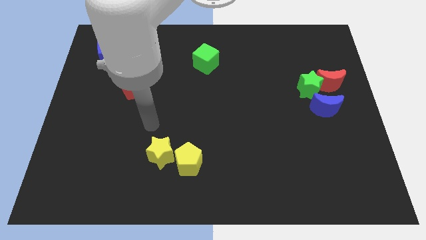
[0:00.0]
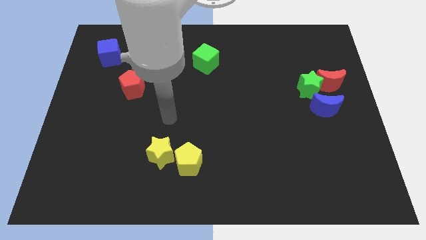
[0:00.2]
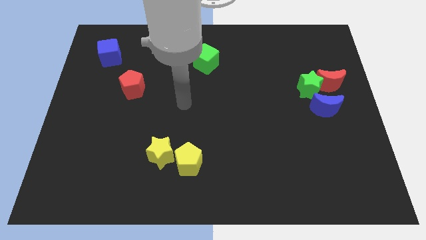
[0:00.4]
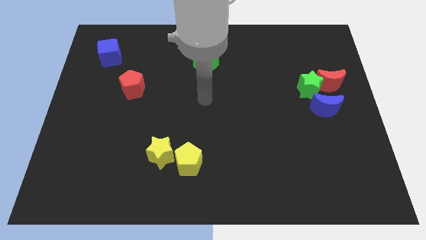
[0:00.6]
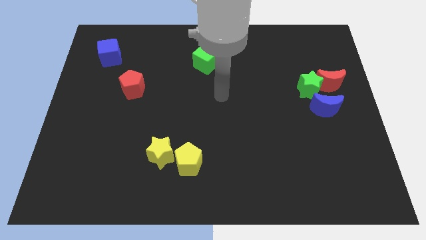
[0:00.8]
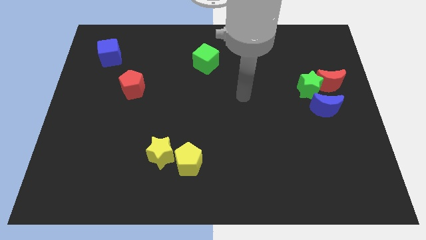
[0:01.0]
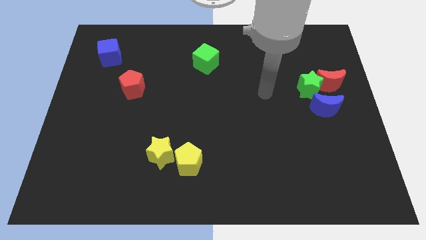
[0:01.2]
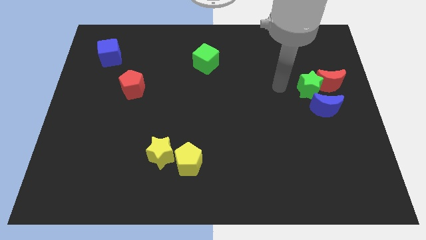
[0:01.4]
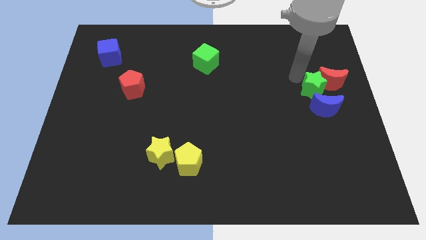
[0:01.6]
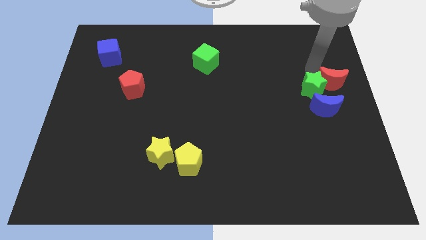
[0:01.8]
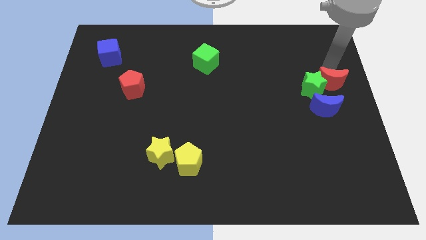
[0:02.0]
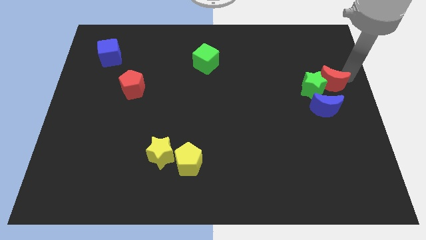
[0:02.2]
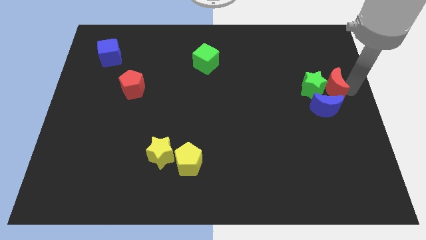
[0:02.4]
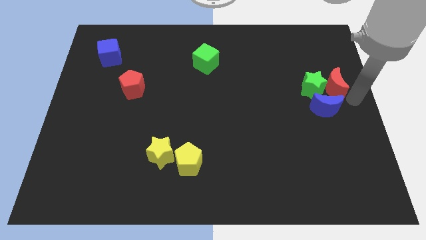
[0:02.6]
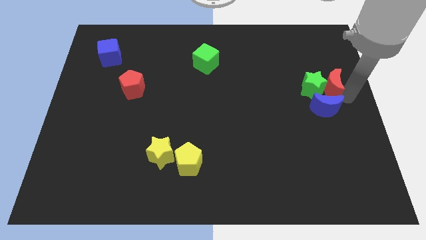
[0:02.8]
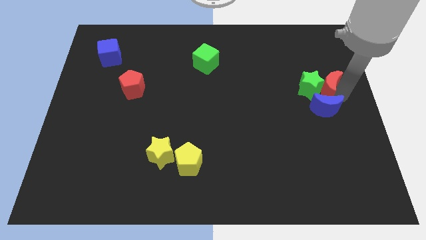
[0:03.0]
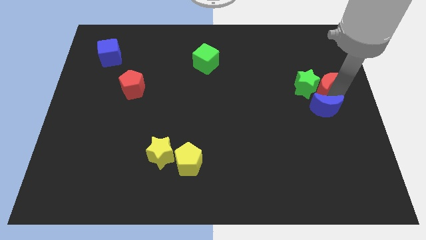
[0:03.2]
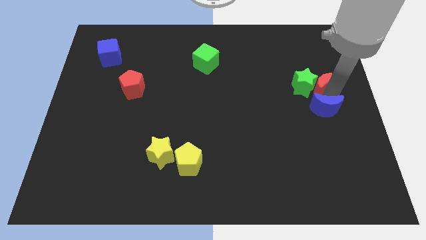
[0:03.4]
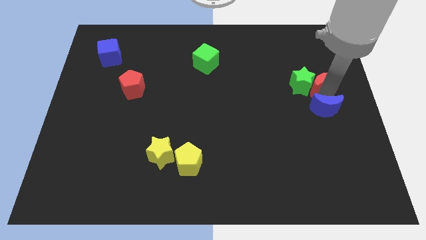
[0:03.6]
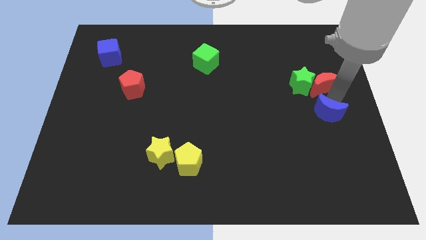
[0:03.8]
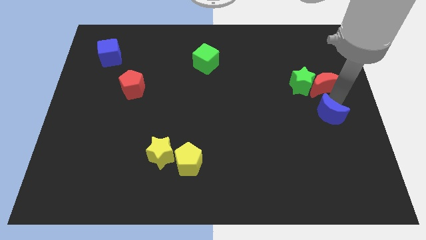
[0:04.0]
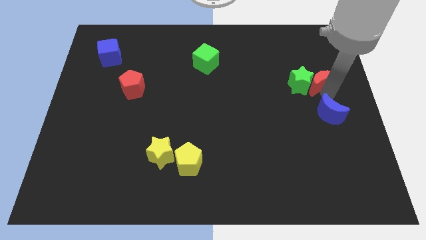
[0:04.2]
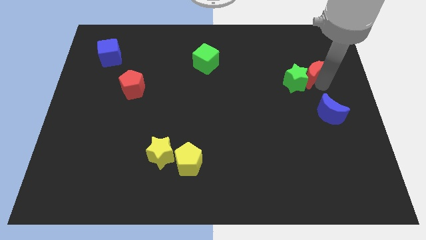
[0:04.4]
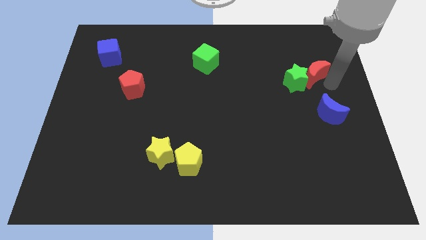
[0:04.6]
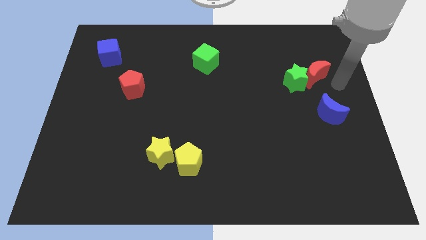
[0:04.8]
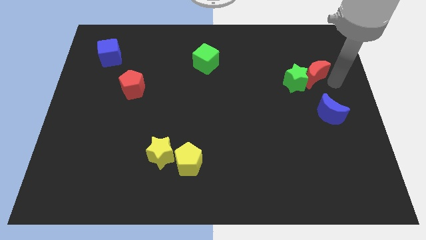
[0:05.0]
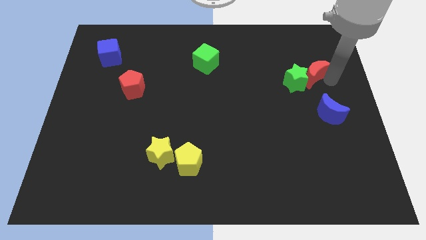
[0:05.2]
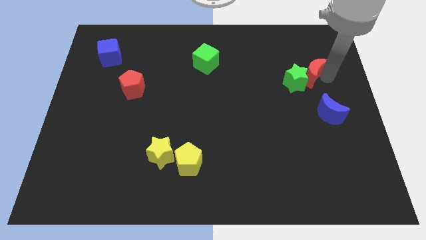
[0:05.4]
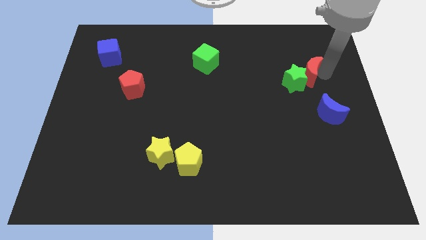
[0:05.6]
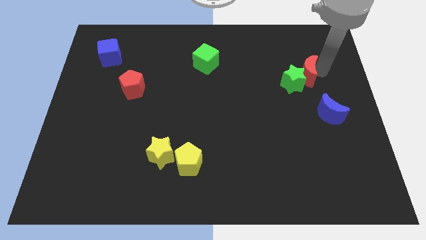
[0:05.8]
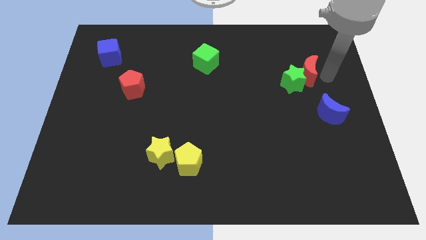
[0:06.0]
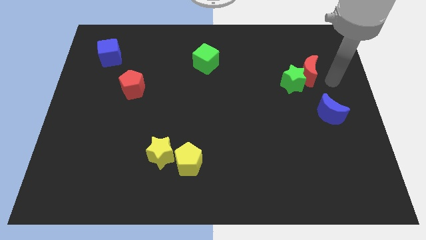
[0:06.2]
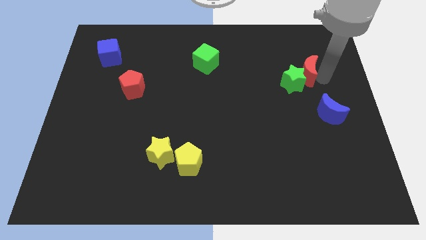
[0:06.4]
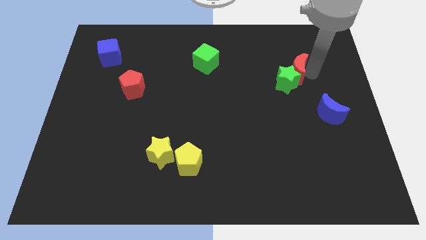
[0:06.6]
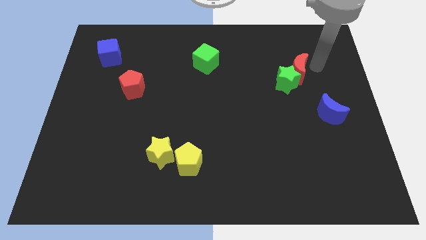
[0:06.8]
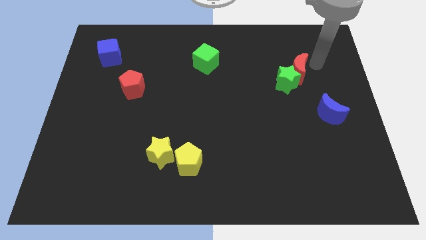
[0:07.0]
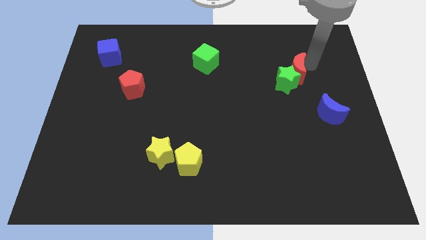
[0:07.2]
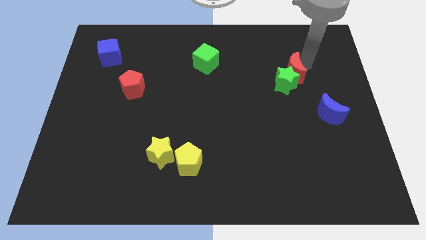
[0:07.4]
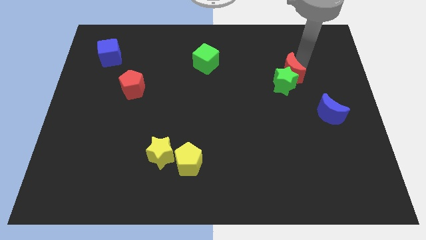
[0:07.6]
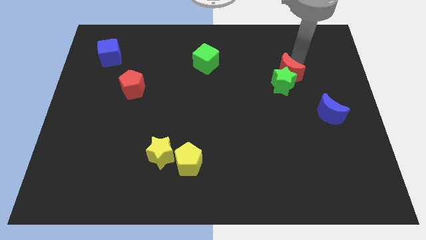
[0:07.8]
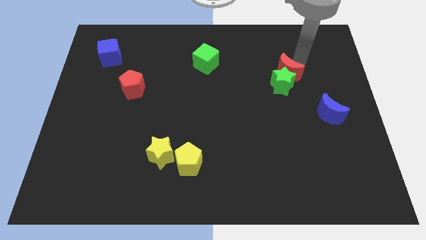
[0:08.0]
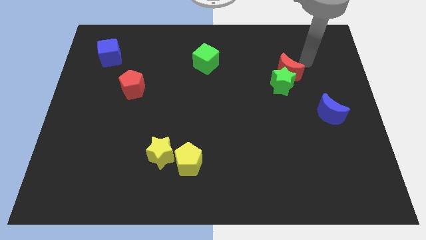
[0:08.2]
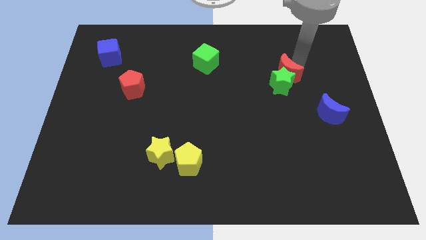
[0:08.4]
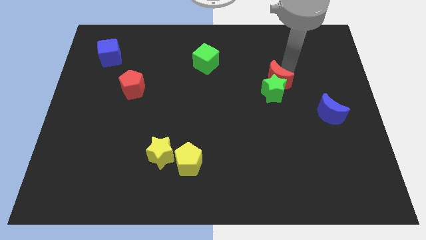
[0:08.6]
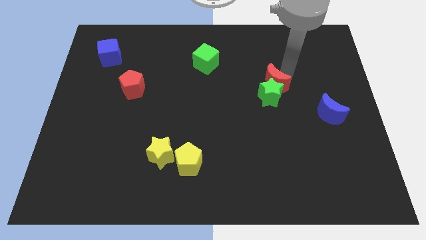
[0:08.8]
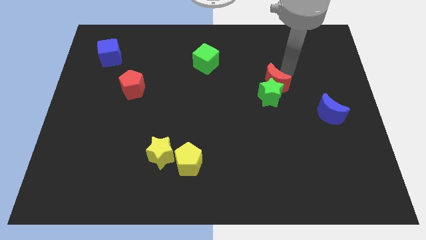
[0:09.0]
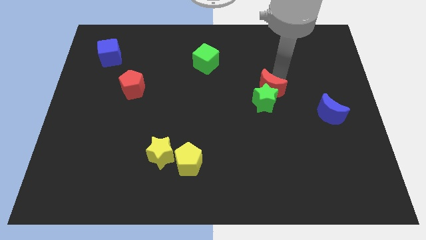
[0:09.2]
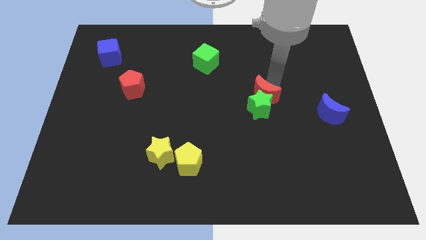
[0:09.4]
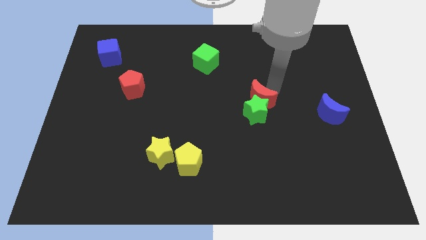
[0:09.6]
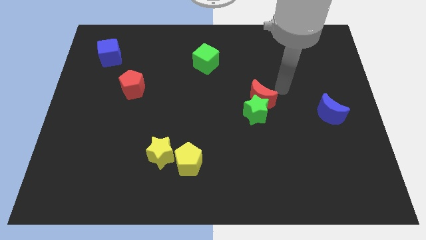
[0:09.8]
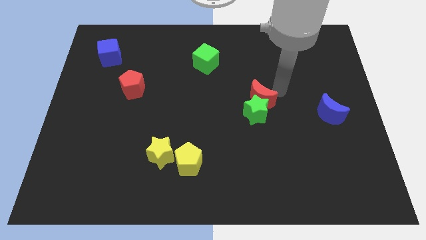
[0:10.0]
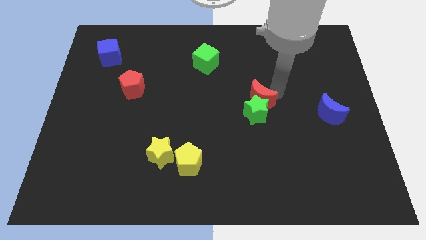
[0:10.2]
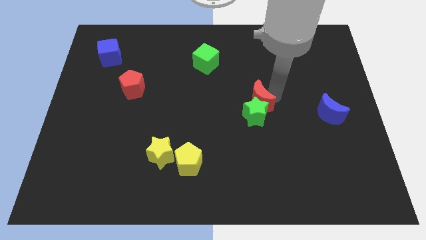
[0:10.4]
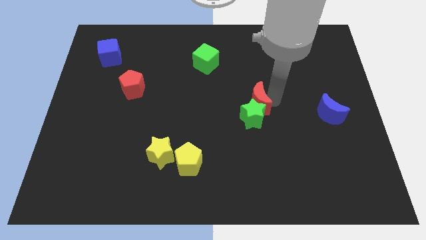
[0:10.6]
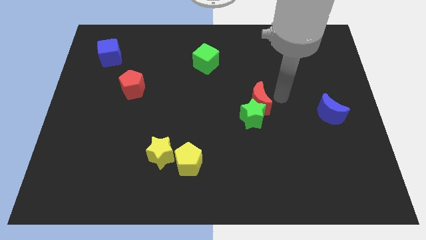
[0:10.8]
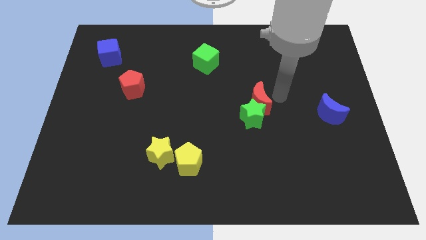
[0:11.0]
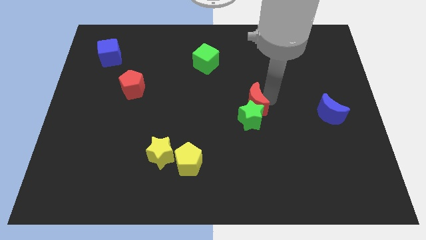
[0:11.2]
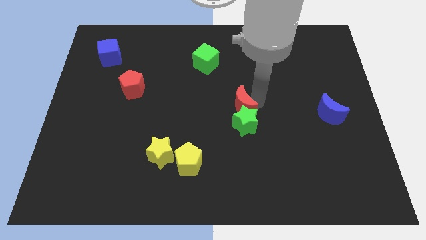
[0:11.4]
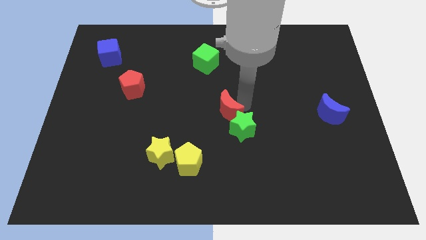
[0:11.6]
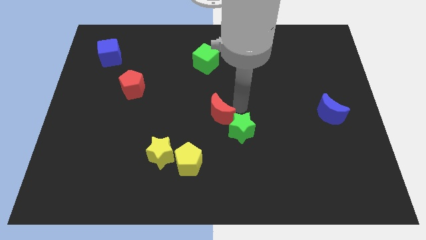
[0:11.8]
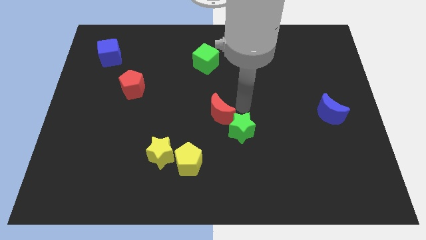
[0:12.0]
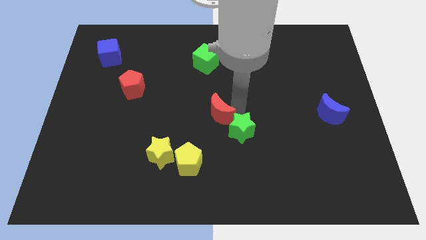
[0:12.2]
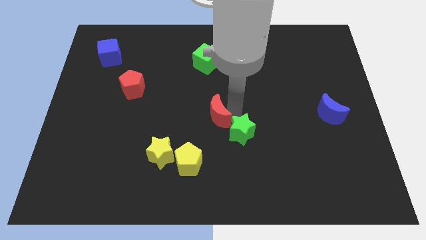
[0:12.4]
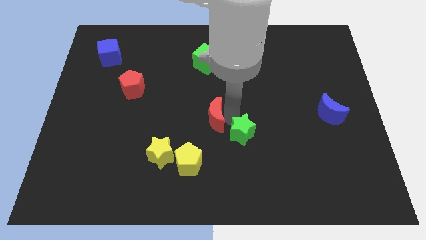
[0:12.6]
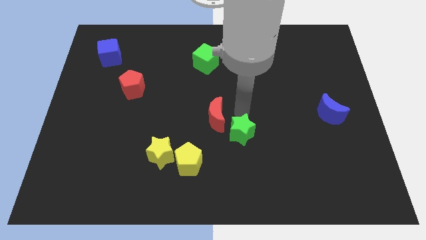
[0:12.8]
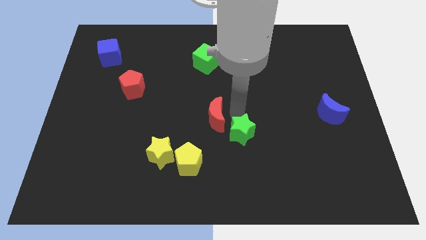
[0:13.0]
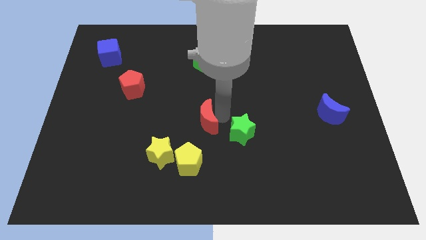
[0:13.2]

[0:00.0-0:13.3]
push the red moon above the yellow pentagon

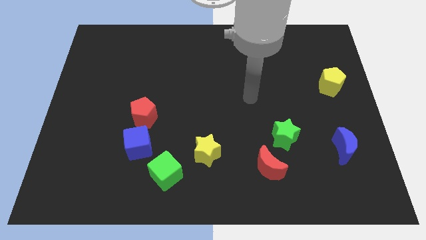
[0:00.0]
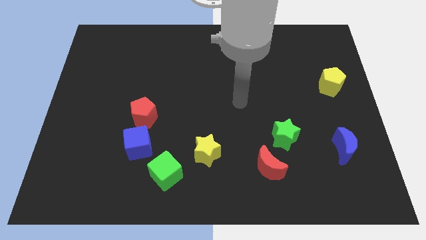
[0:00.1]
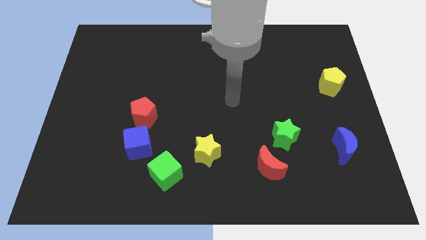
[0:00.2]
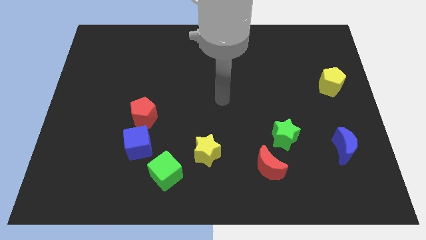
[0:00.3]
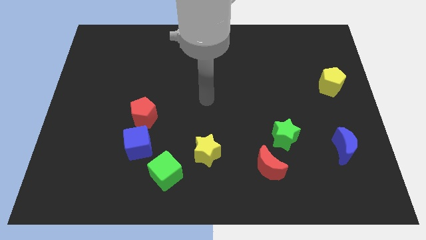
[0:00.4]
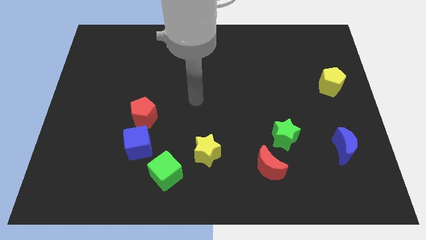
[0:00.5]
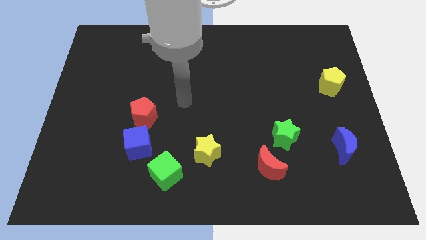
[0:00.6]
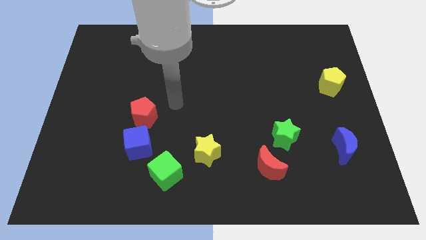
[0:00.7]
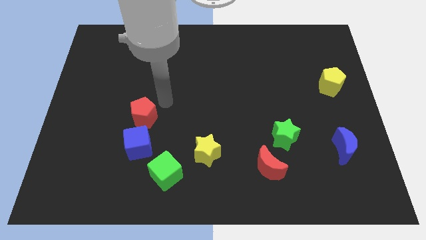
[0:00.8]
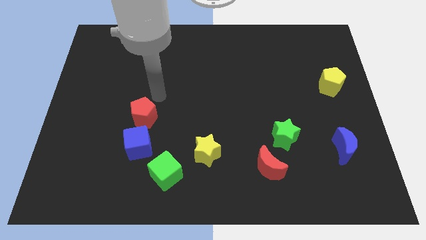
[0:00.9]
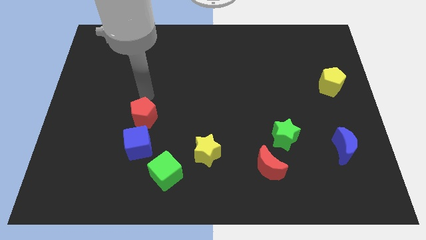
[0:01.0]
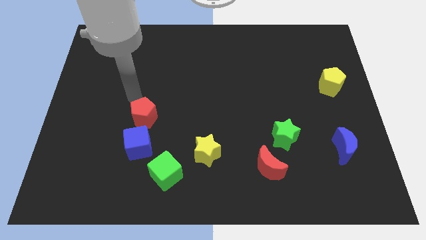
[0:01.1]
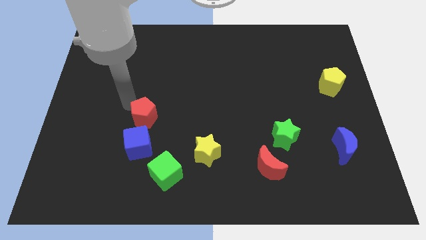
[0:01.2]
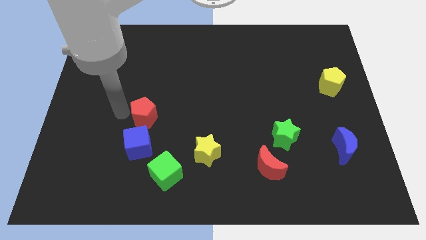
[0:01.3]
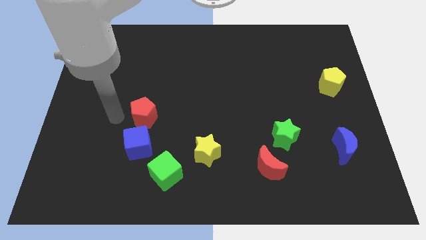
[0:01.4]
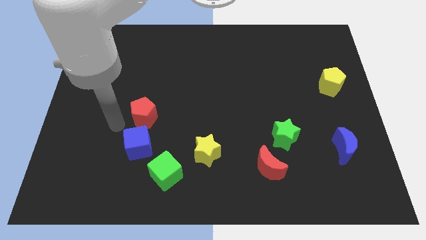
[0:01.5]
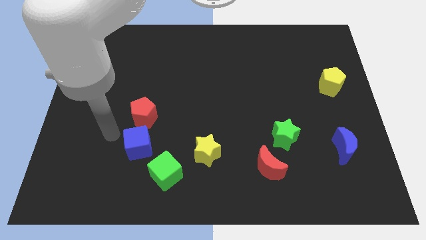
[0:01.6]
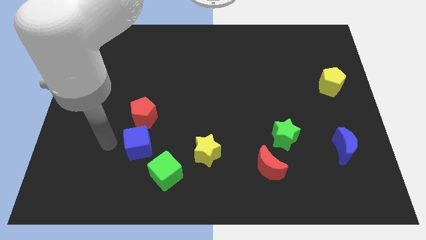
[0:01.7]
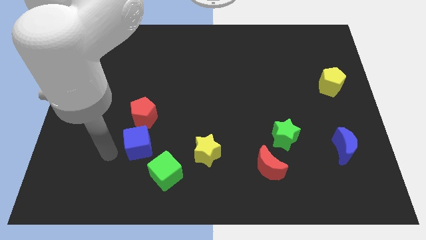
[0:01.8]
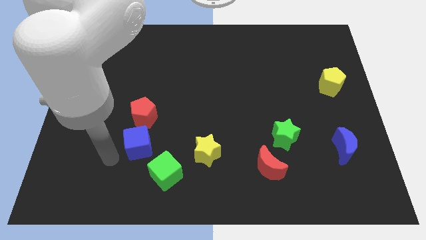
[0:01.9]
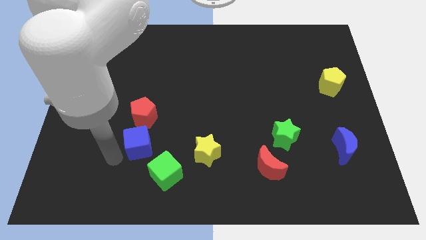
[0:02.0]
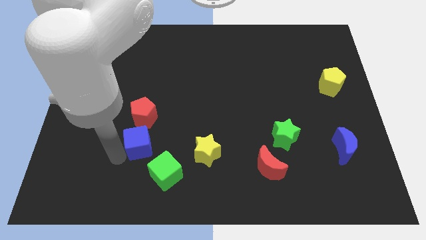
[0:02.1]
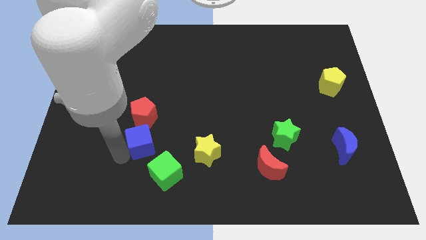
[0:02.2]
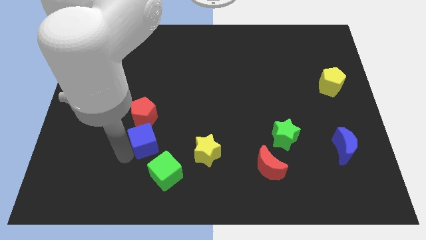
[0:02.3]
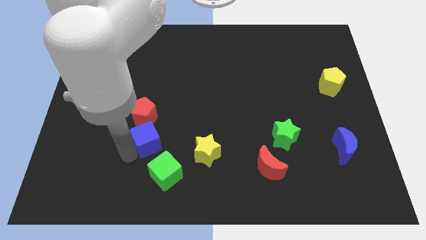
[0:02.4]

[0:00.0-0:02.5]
move the blue cube to the top of the green cube
